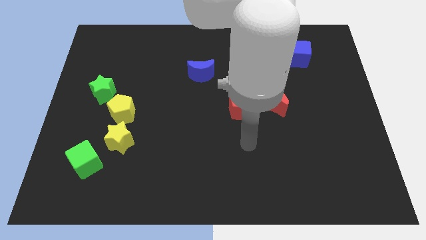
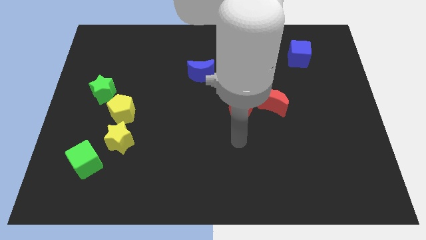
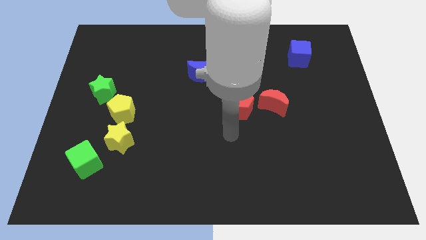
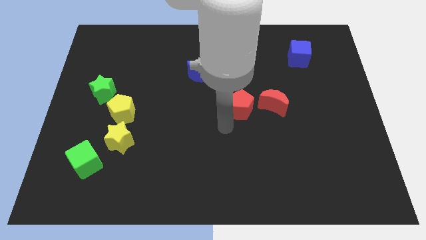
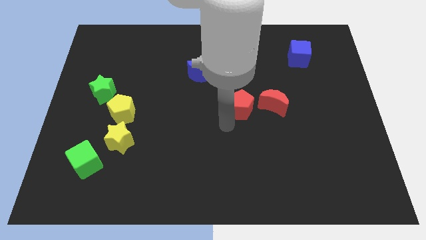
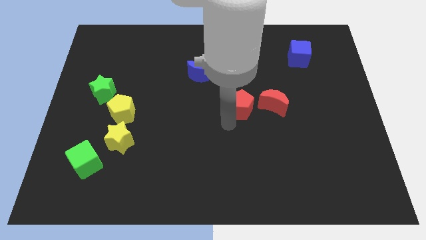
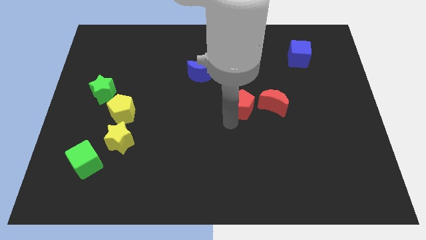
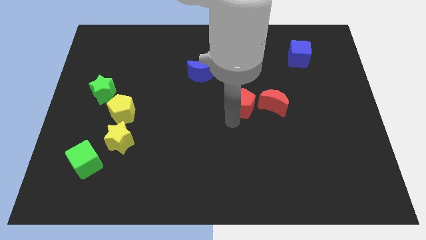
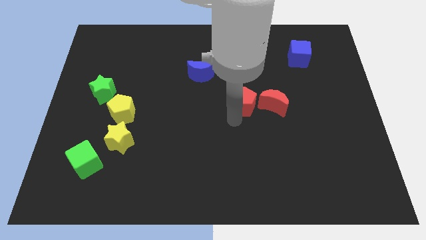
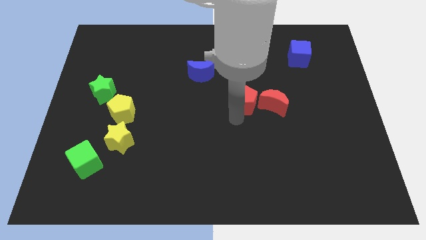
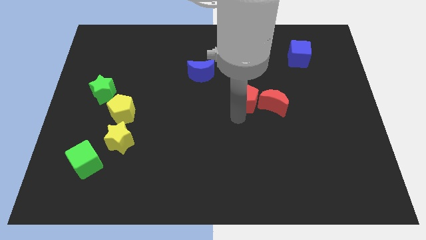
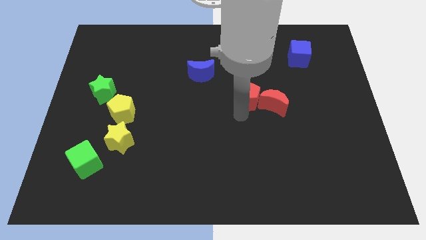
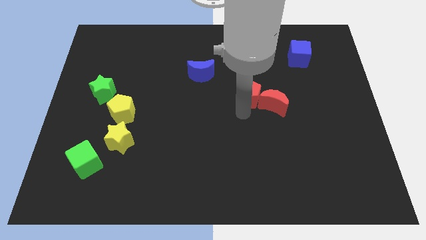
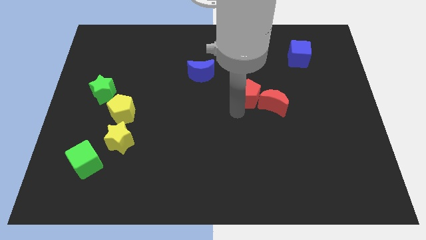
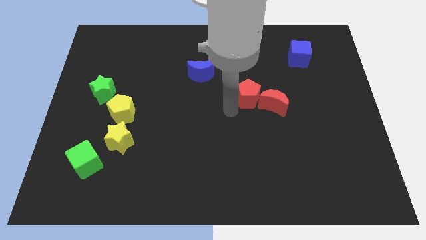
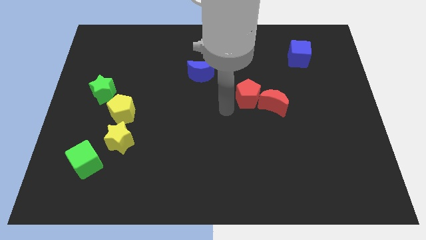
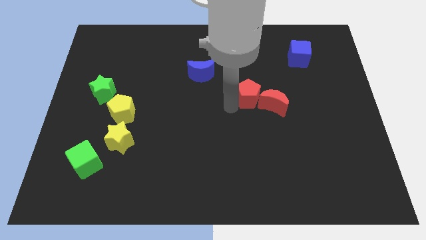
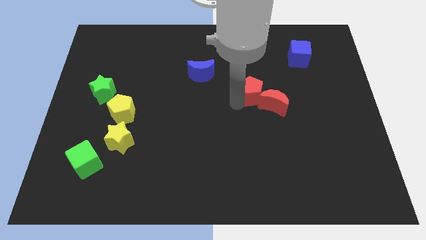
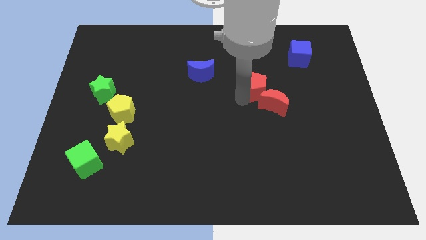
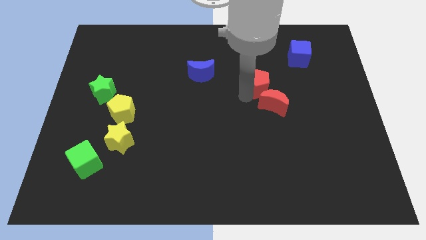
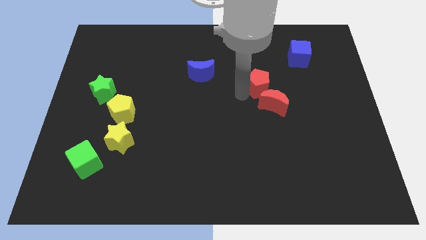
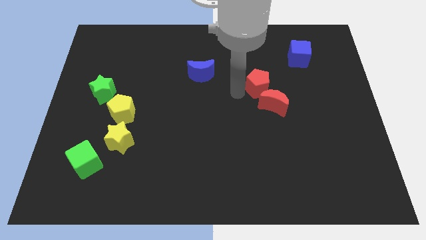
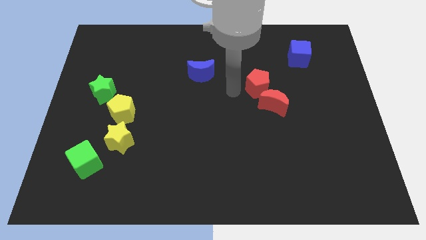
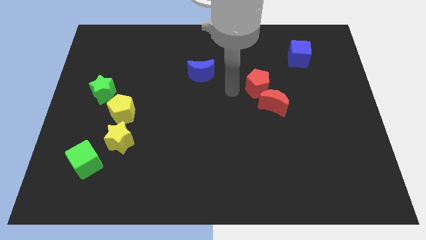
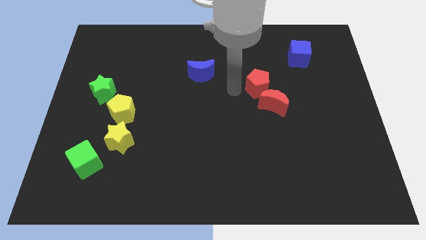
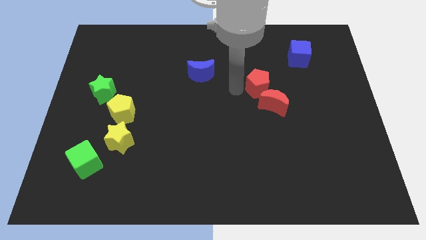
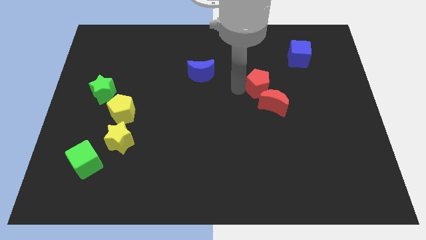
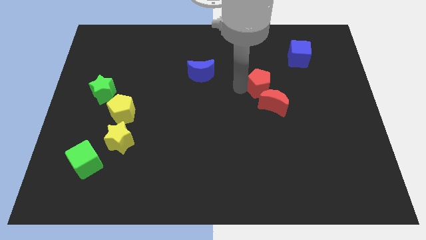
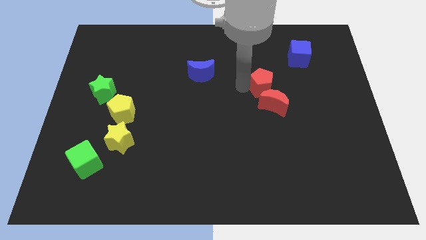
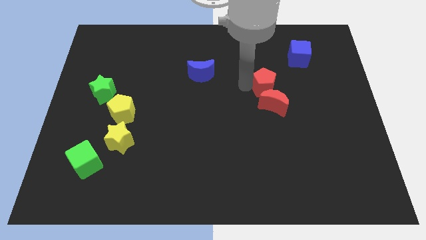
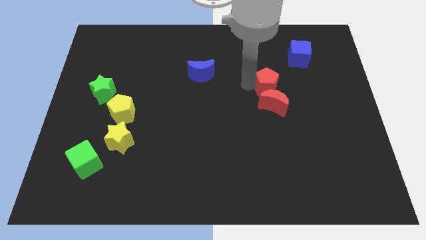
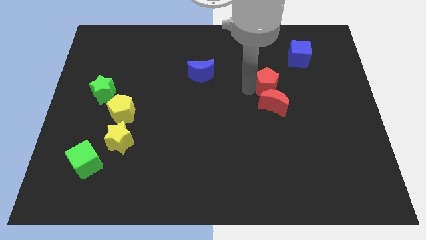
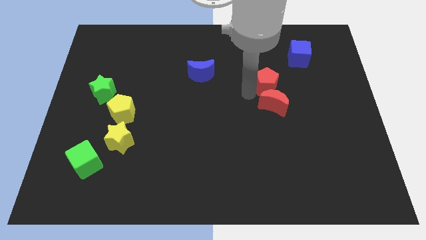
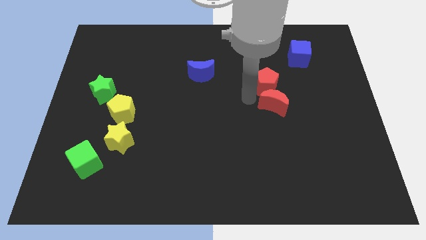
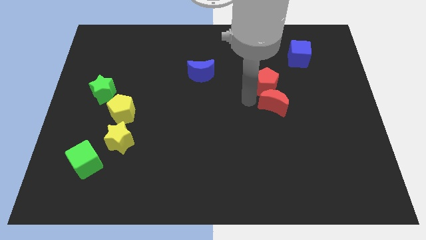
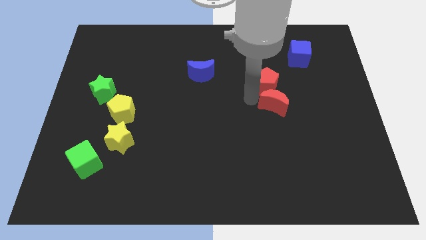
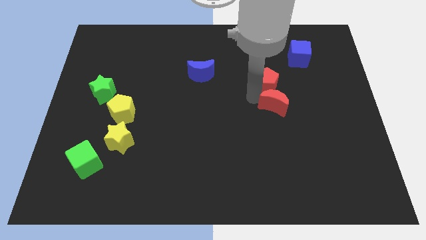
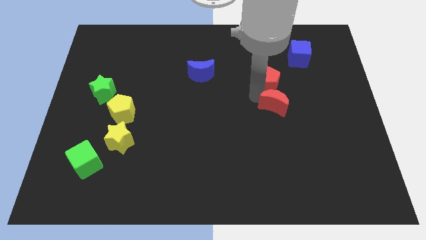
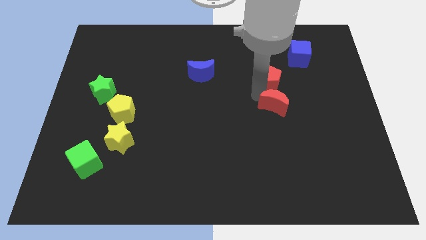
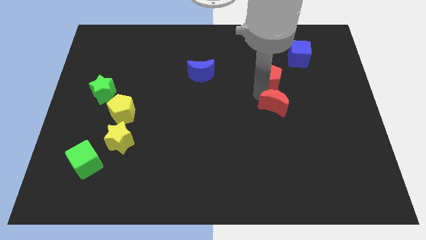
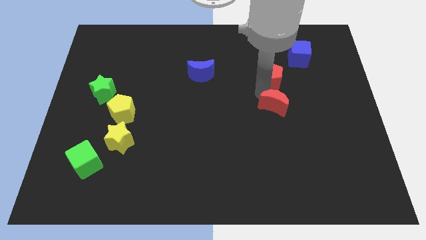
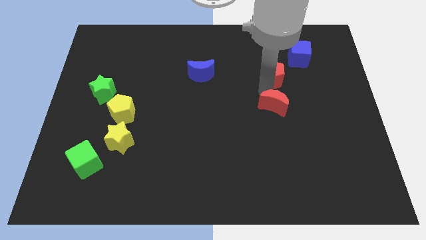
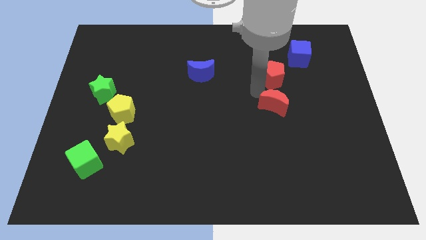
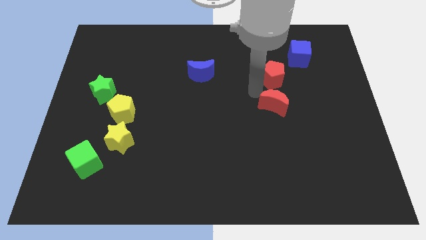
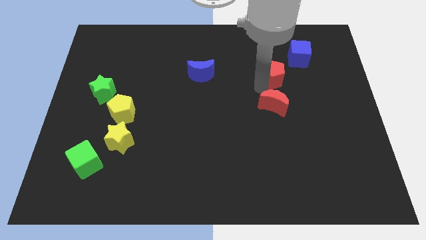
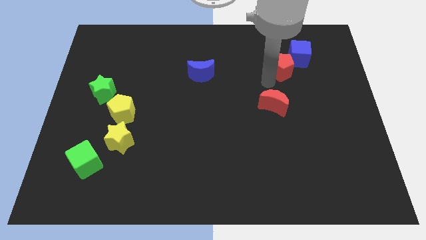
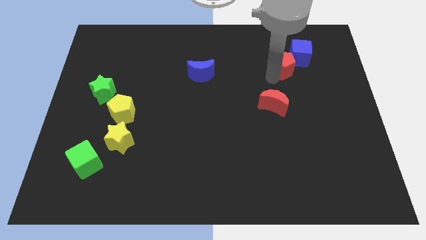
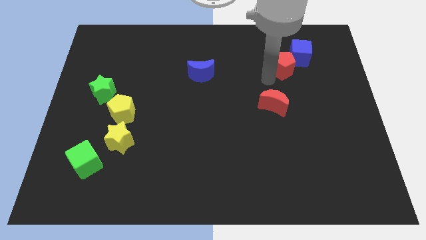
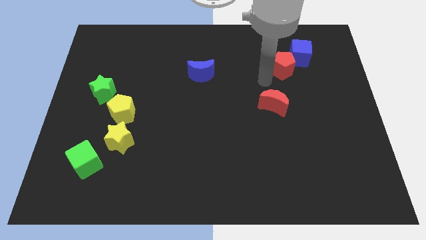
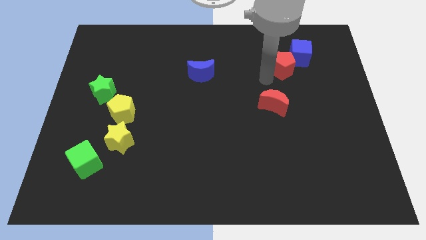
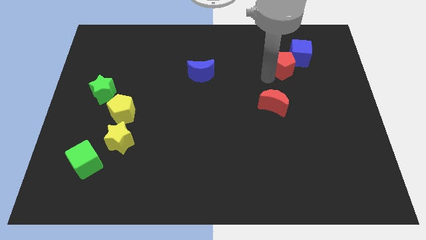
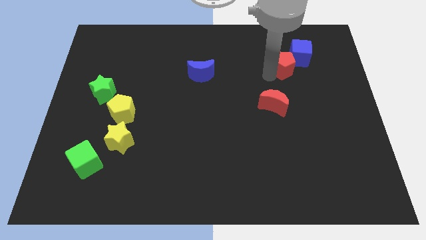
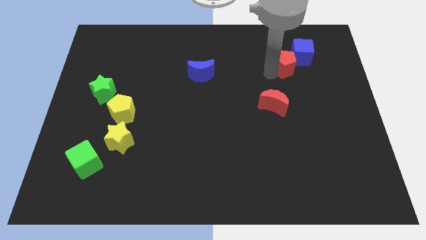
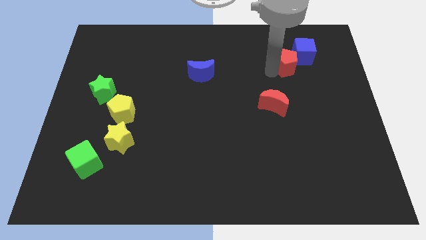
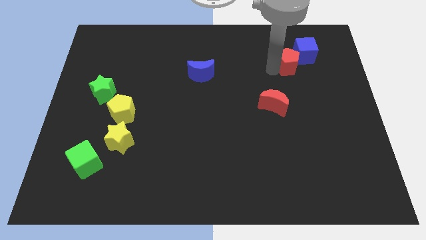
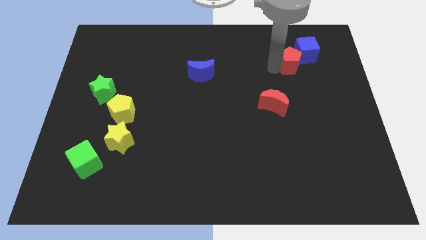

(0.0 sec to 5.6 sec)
slide the red pentagon next to the blue cube
